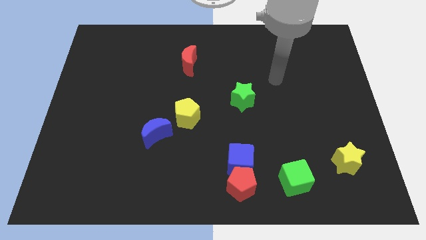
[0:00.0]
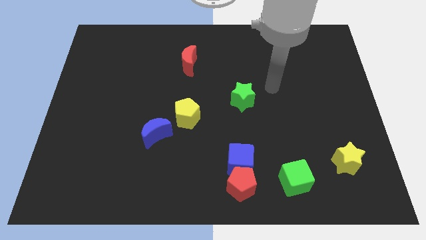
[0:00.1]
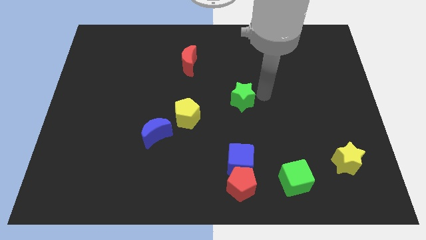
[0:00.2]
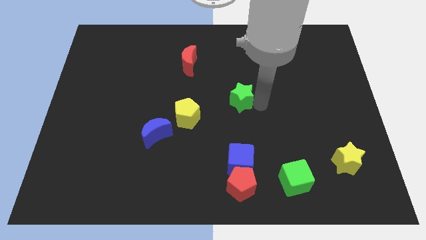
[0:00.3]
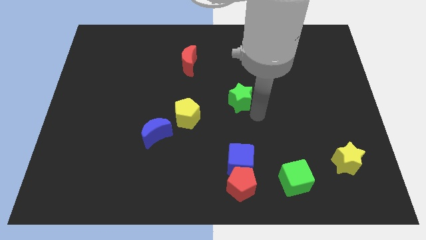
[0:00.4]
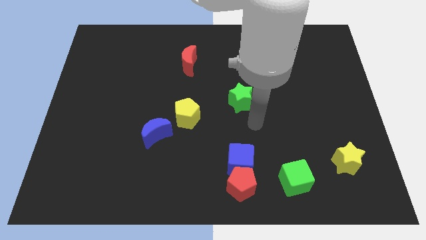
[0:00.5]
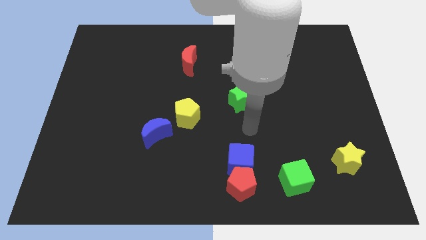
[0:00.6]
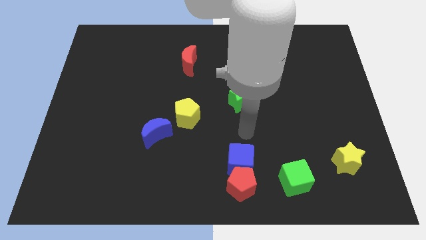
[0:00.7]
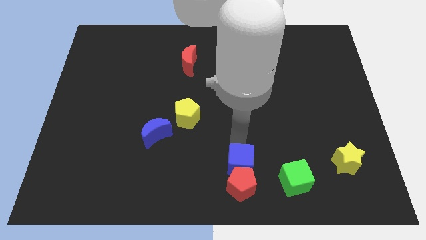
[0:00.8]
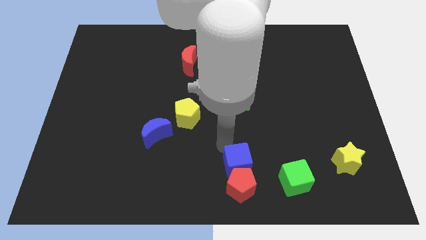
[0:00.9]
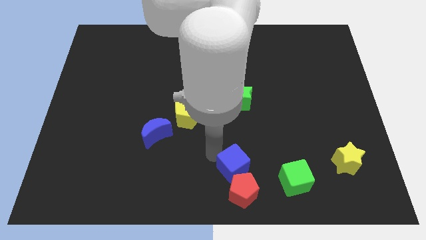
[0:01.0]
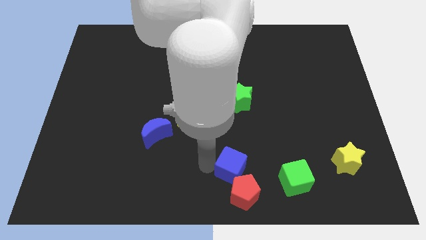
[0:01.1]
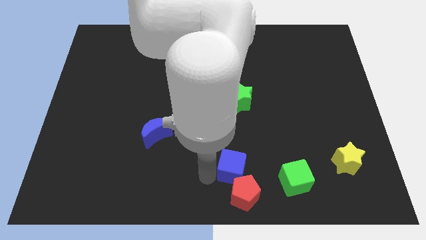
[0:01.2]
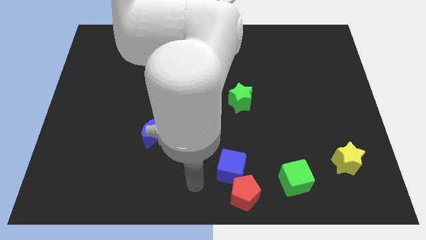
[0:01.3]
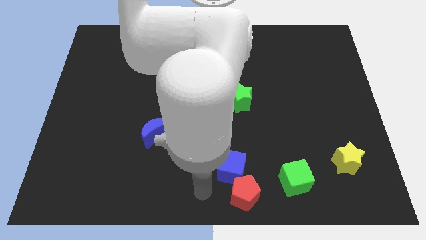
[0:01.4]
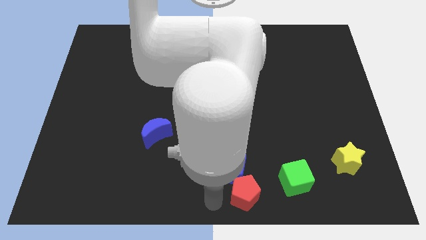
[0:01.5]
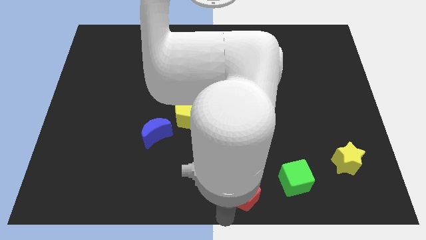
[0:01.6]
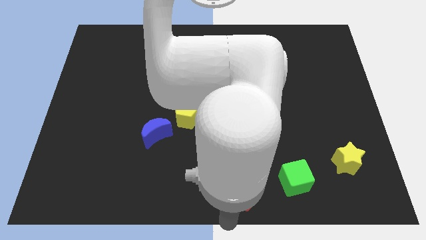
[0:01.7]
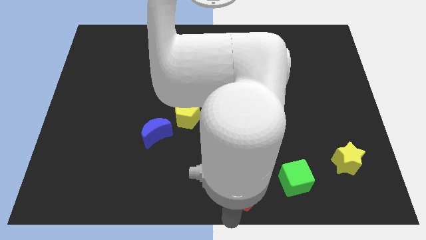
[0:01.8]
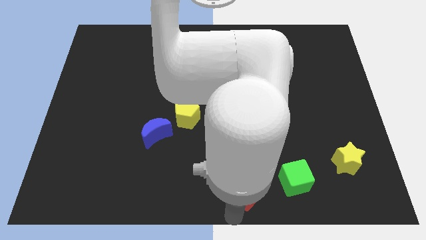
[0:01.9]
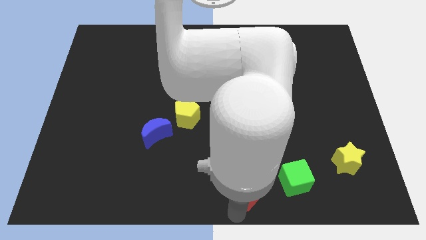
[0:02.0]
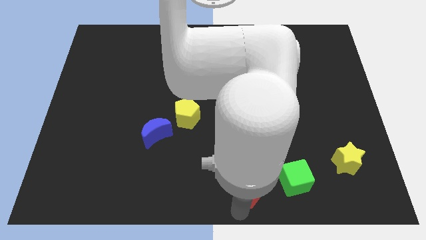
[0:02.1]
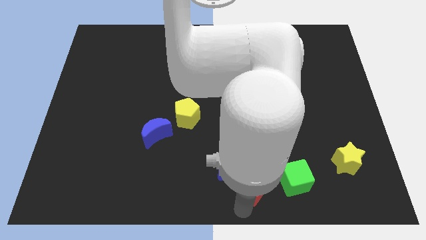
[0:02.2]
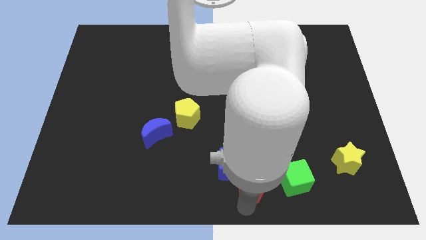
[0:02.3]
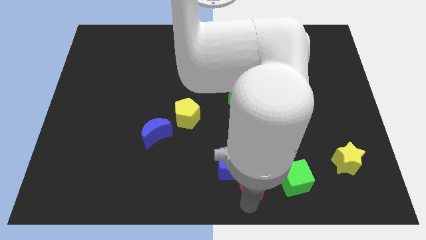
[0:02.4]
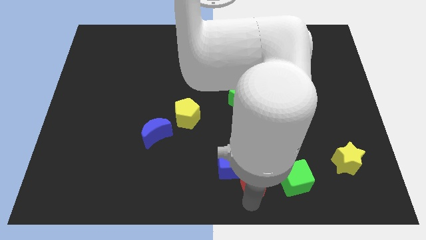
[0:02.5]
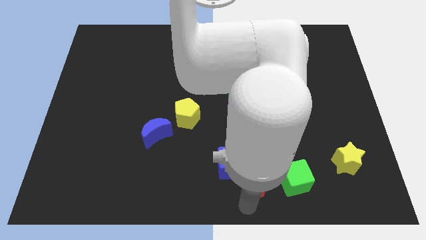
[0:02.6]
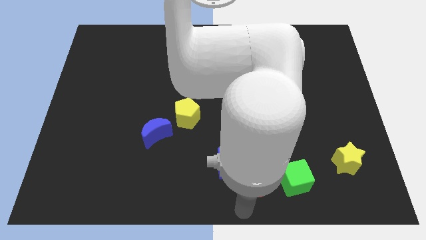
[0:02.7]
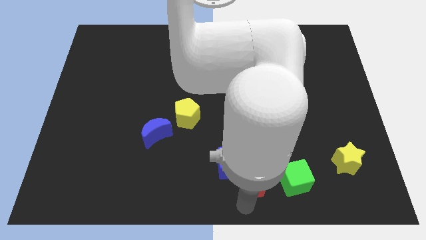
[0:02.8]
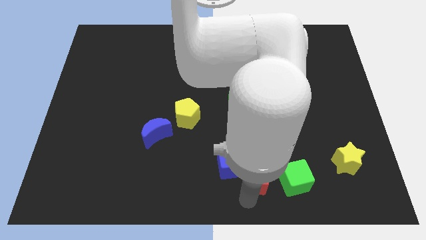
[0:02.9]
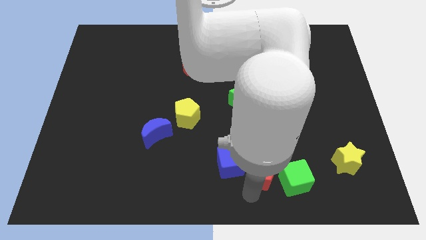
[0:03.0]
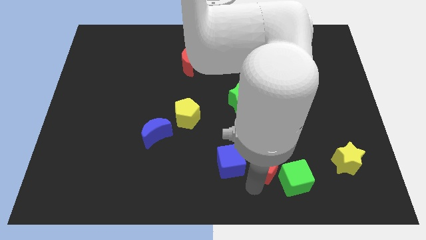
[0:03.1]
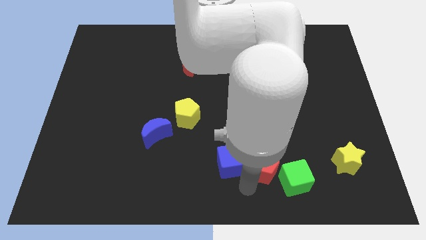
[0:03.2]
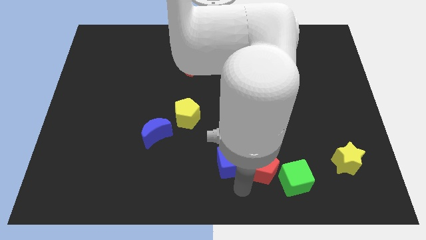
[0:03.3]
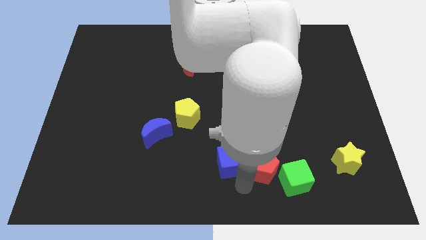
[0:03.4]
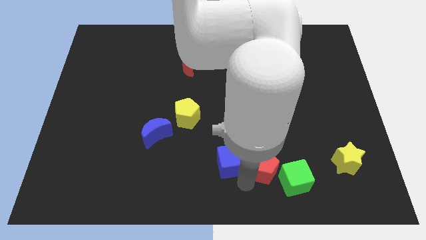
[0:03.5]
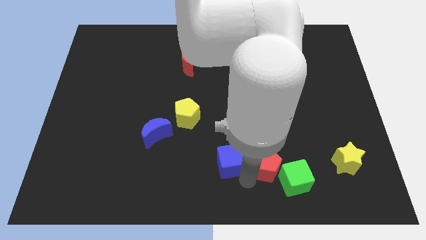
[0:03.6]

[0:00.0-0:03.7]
move the red pentagon slightly diagonally up and to the right

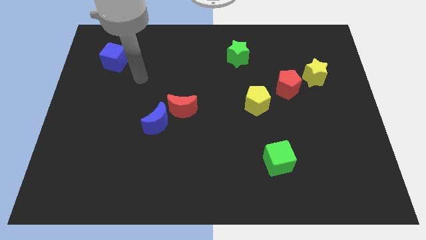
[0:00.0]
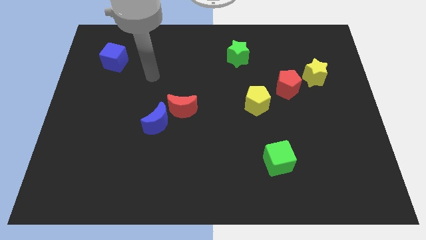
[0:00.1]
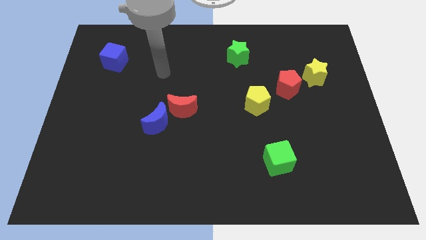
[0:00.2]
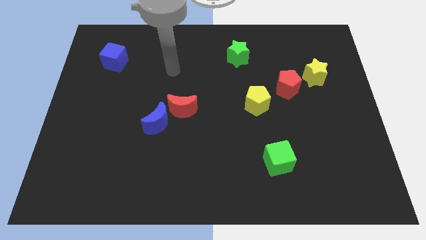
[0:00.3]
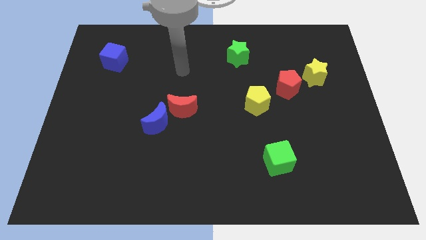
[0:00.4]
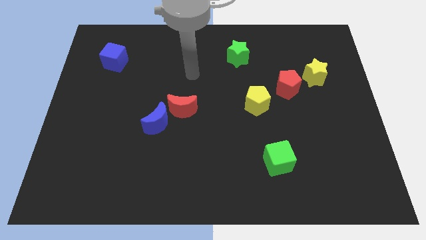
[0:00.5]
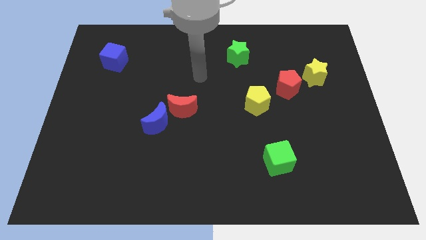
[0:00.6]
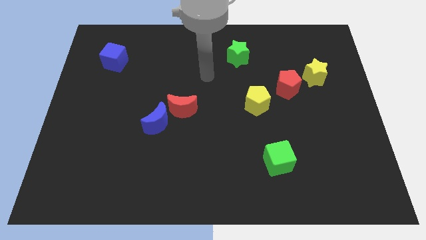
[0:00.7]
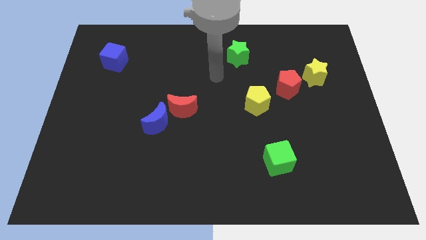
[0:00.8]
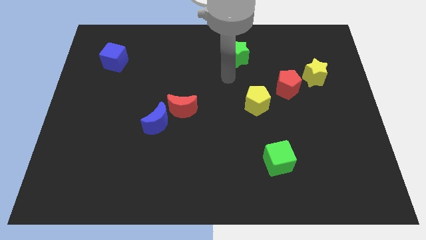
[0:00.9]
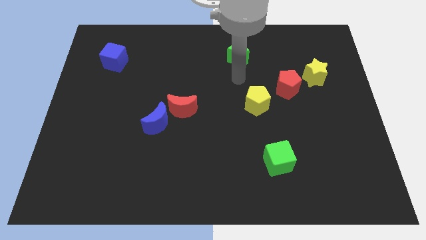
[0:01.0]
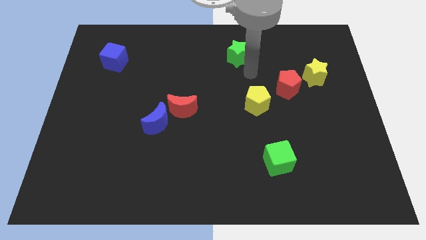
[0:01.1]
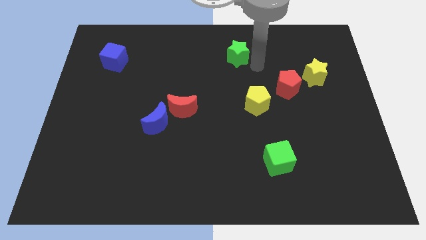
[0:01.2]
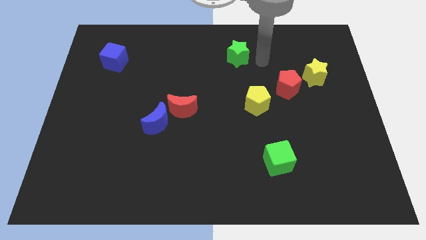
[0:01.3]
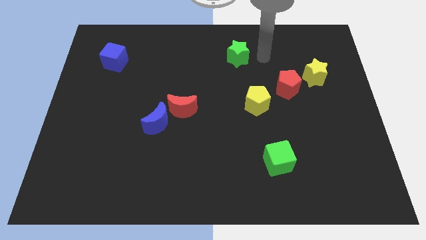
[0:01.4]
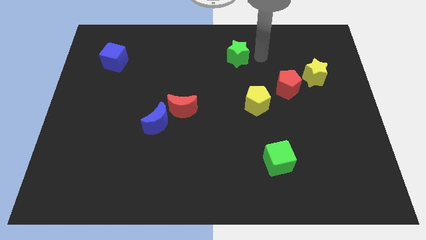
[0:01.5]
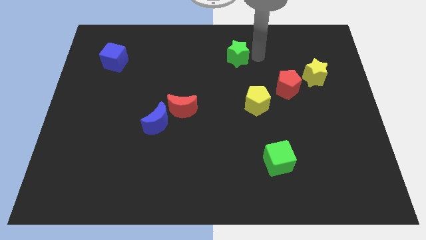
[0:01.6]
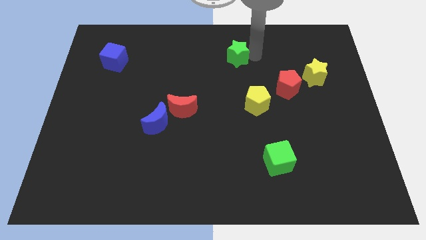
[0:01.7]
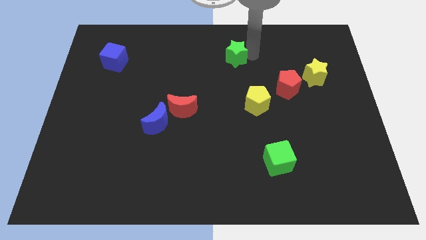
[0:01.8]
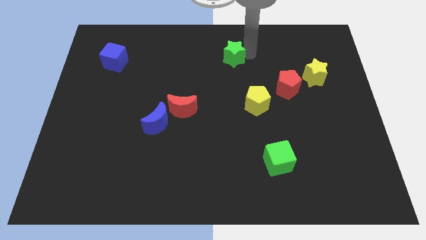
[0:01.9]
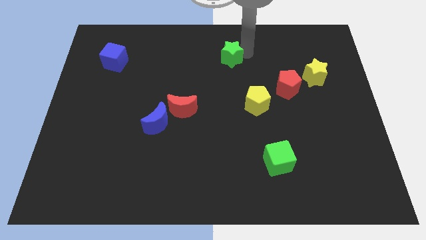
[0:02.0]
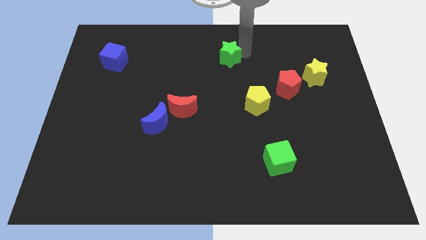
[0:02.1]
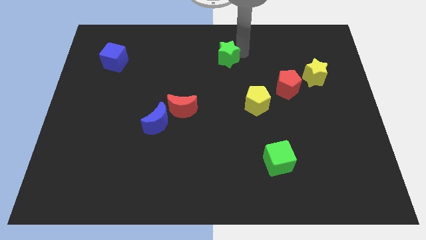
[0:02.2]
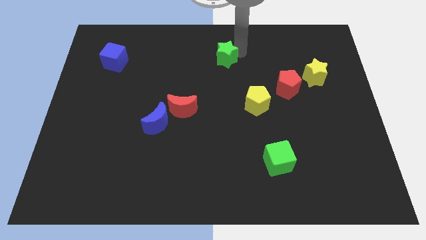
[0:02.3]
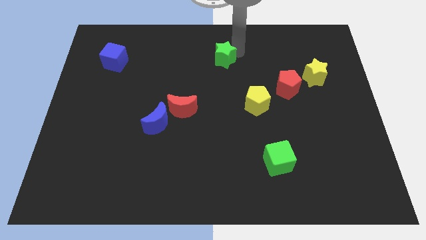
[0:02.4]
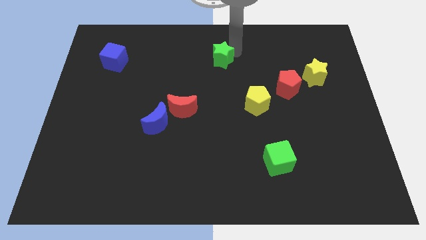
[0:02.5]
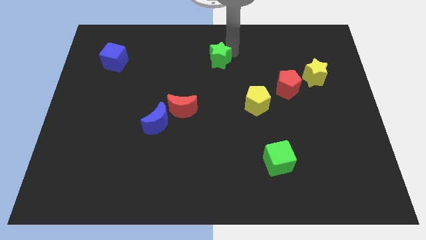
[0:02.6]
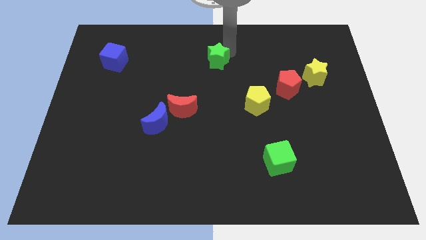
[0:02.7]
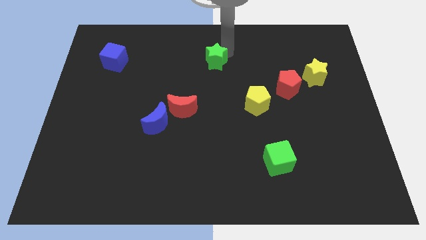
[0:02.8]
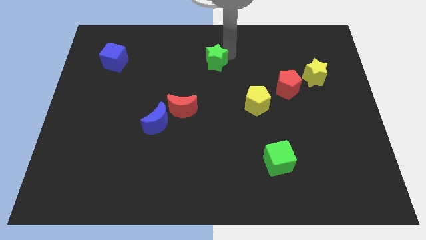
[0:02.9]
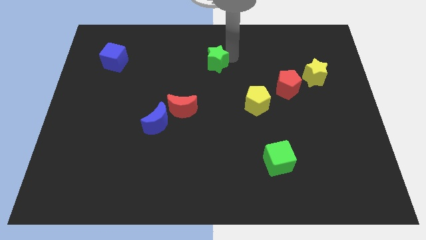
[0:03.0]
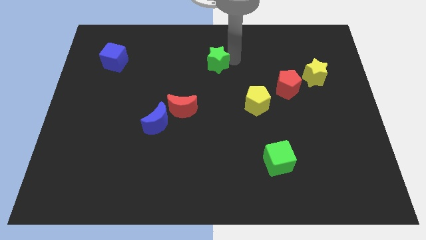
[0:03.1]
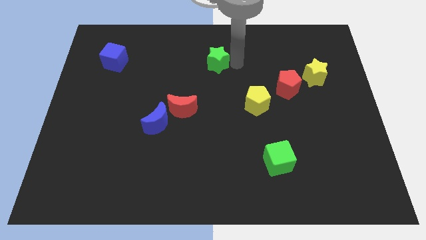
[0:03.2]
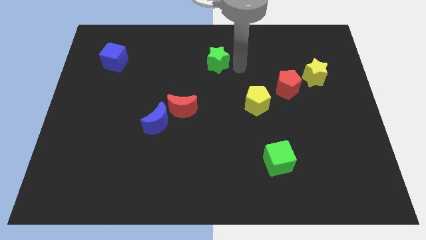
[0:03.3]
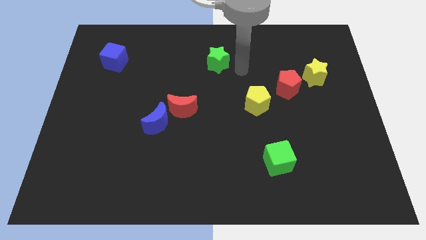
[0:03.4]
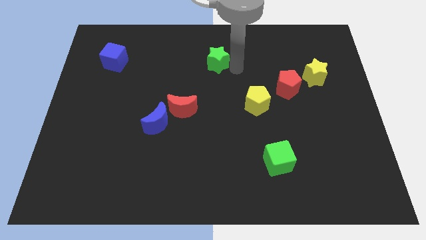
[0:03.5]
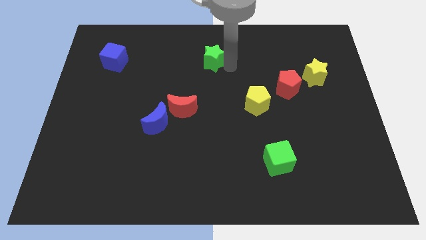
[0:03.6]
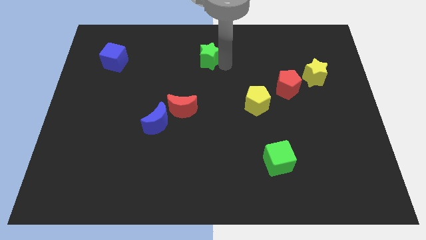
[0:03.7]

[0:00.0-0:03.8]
slightly move the green star to the left

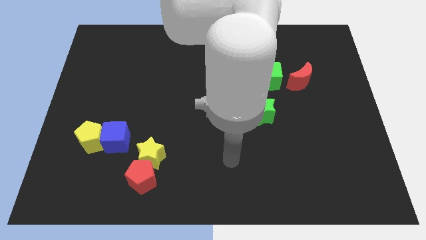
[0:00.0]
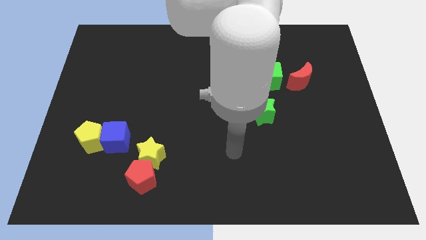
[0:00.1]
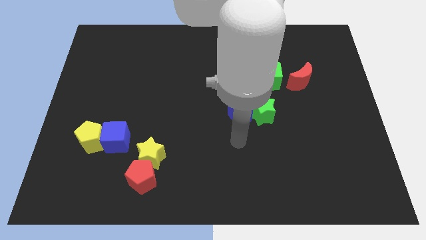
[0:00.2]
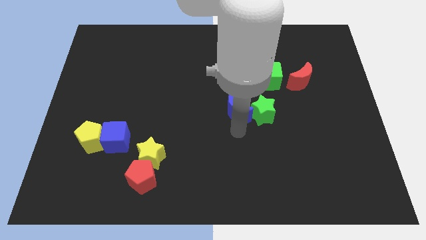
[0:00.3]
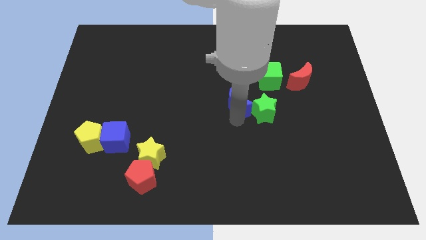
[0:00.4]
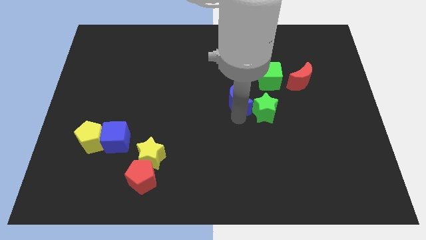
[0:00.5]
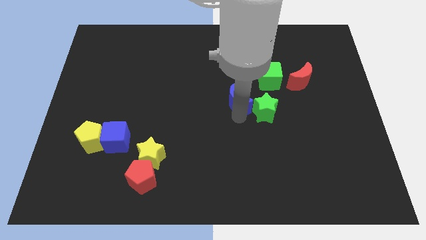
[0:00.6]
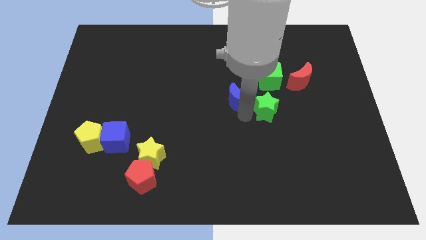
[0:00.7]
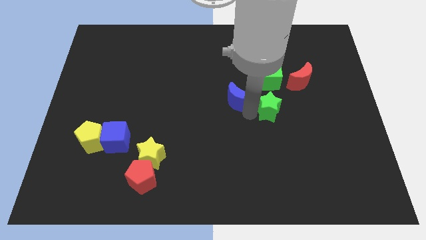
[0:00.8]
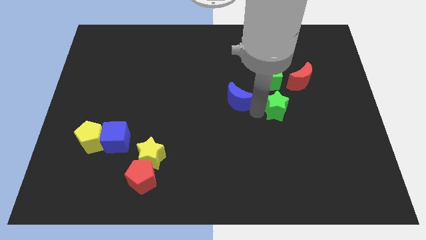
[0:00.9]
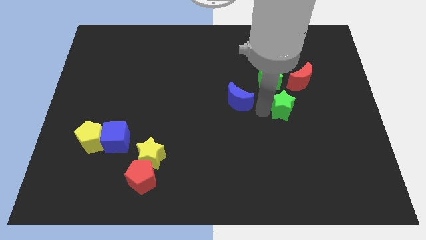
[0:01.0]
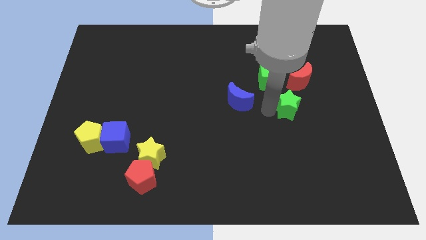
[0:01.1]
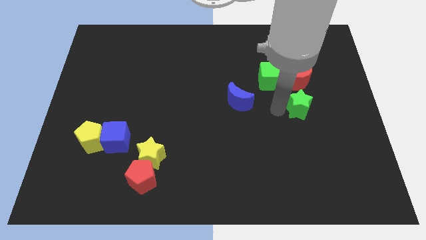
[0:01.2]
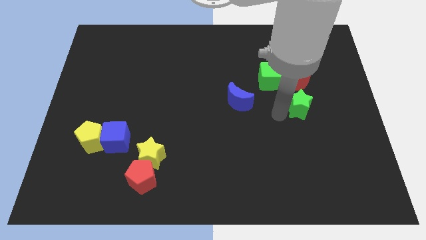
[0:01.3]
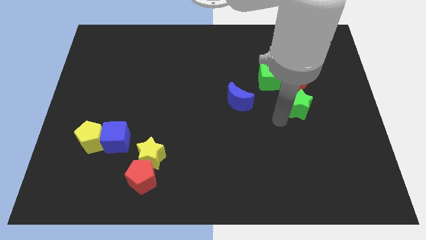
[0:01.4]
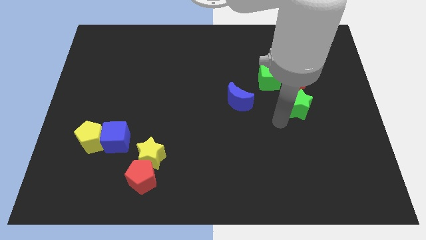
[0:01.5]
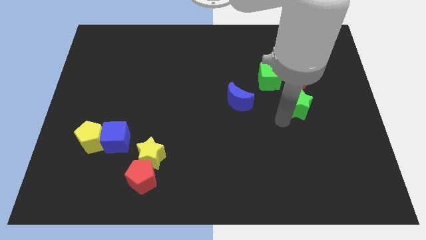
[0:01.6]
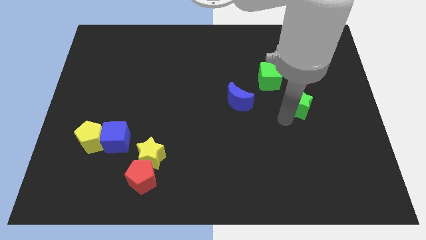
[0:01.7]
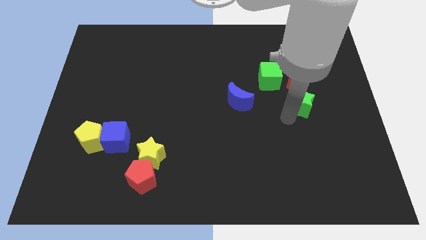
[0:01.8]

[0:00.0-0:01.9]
slightly push the green star upwards and then to the right
